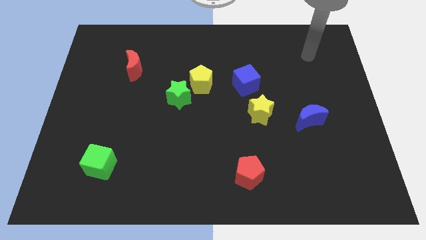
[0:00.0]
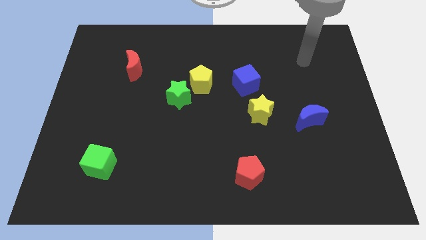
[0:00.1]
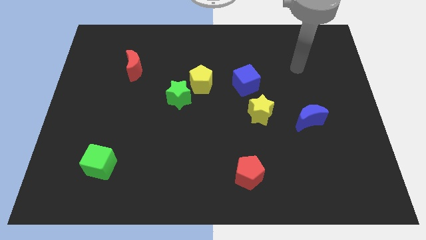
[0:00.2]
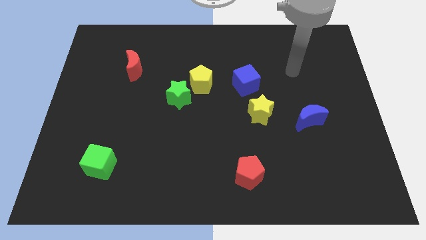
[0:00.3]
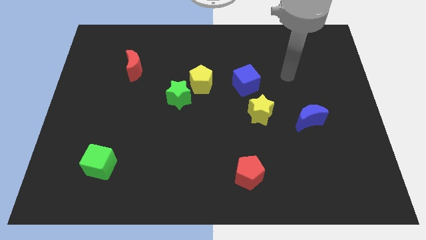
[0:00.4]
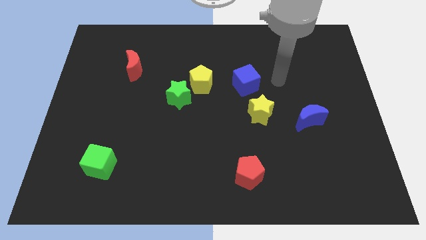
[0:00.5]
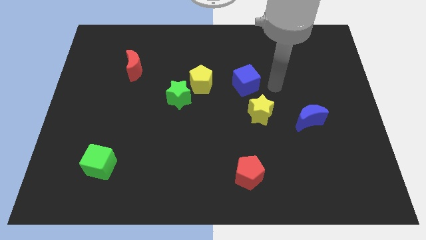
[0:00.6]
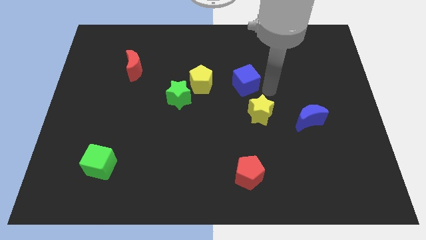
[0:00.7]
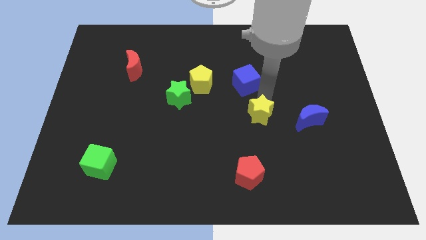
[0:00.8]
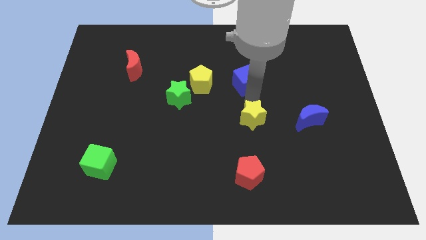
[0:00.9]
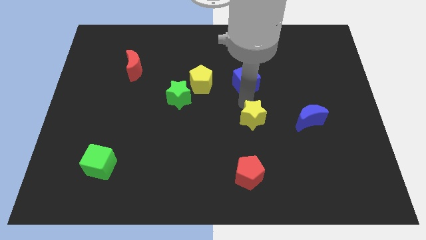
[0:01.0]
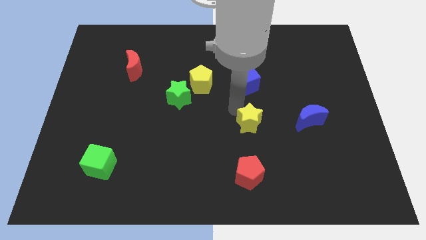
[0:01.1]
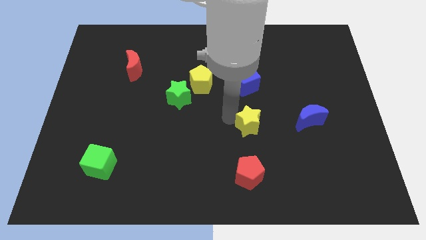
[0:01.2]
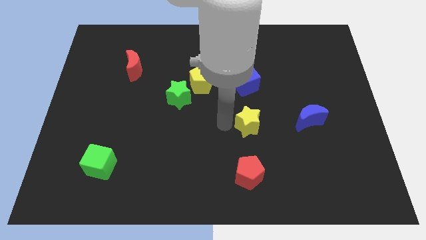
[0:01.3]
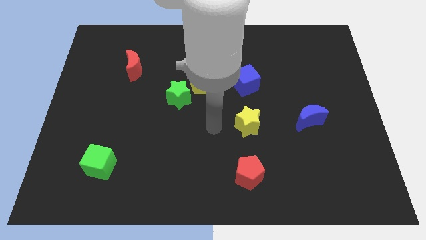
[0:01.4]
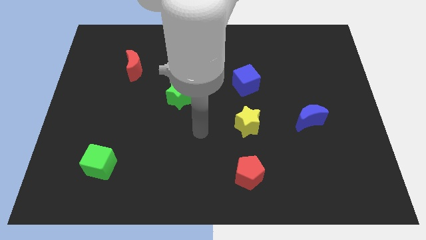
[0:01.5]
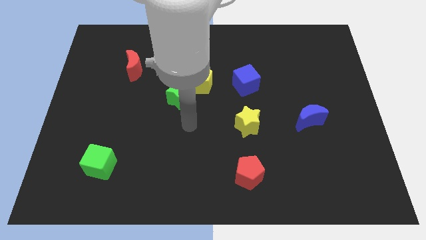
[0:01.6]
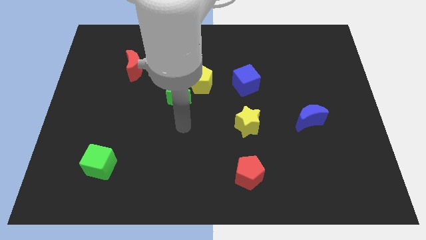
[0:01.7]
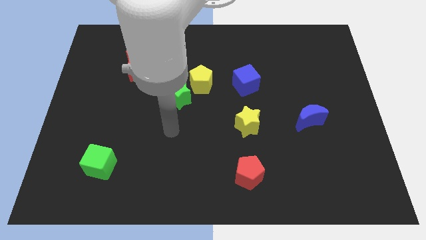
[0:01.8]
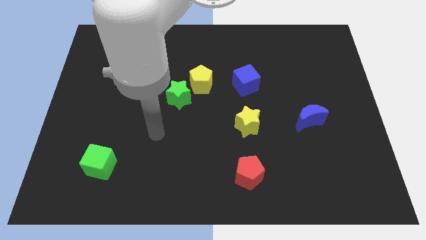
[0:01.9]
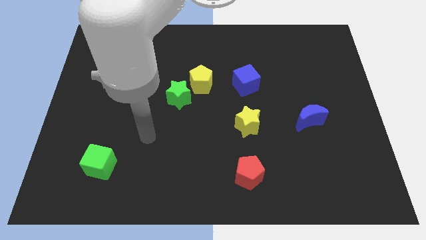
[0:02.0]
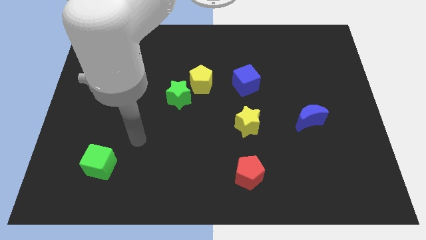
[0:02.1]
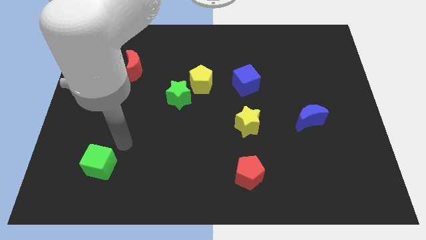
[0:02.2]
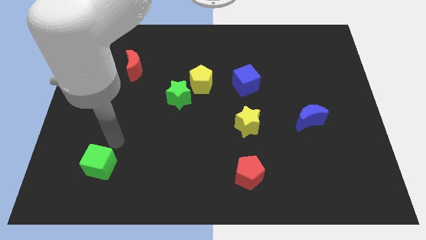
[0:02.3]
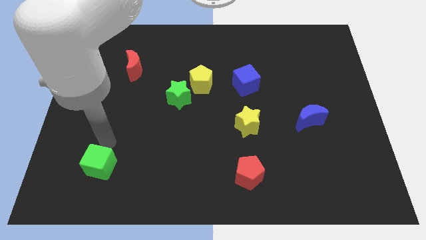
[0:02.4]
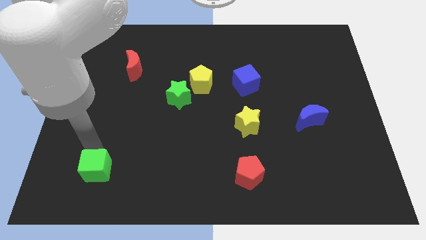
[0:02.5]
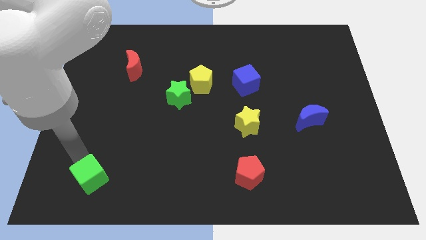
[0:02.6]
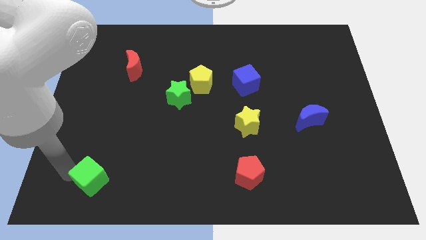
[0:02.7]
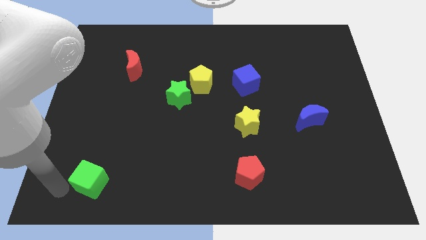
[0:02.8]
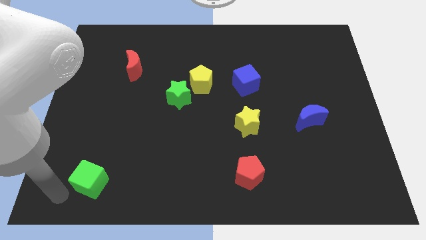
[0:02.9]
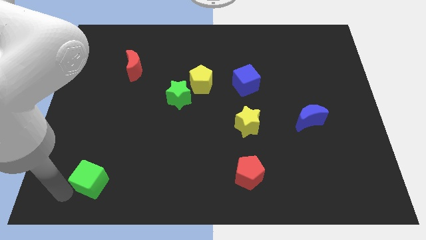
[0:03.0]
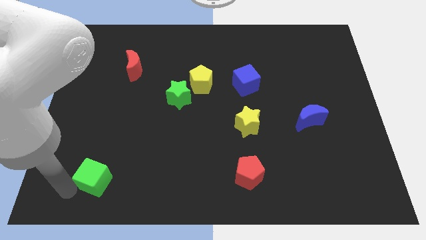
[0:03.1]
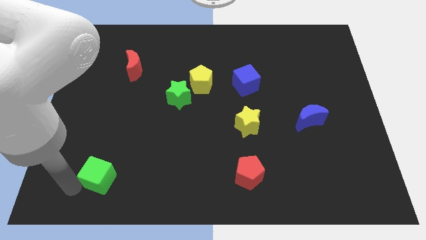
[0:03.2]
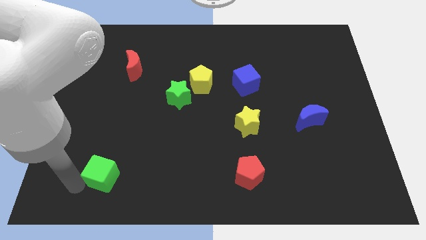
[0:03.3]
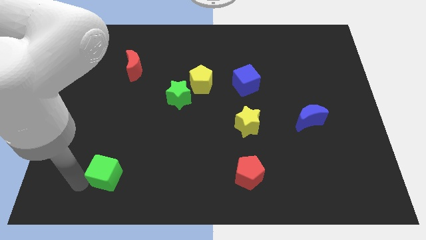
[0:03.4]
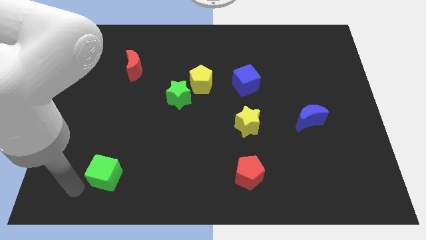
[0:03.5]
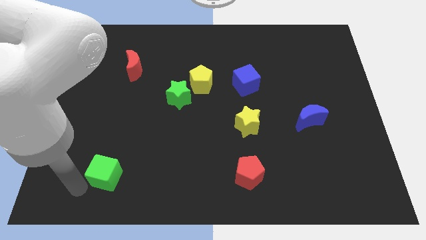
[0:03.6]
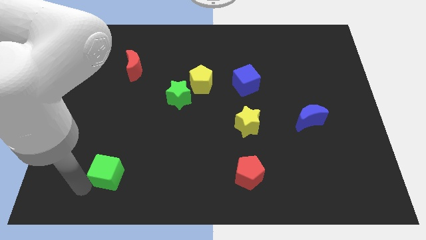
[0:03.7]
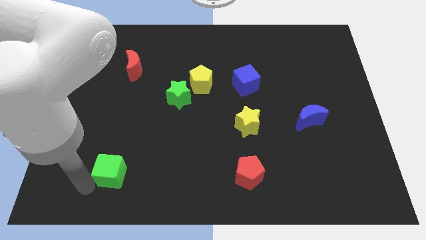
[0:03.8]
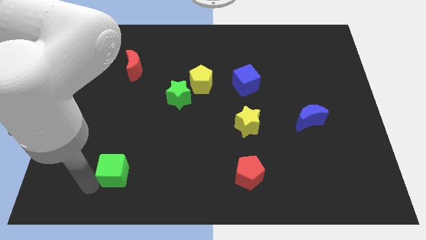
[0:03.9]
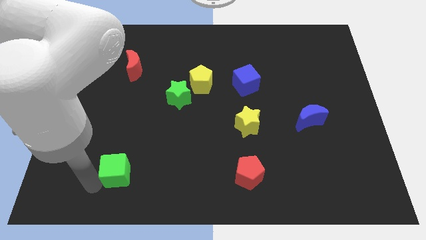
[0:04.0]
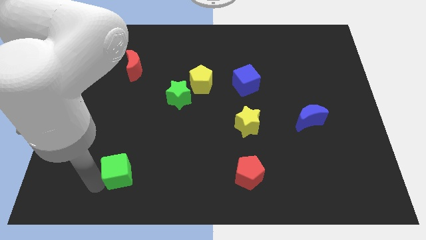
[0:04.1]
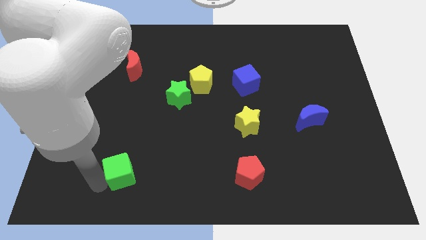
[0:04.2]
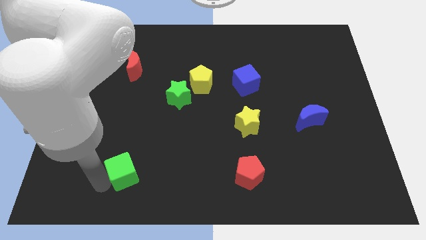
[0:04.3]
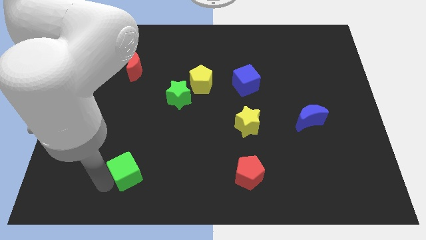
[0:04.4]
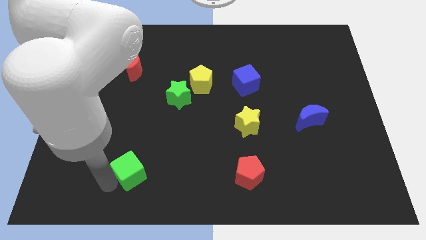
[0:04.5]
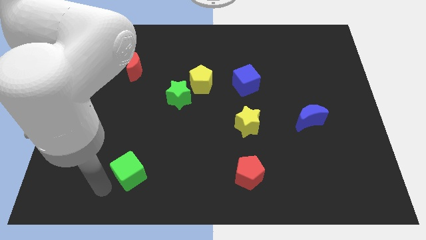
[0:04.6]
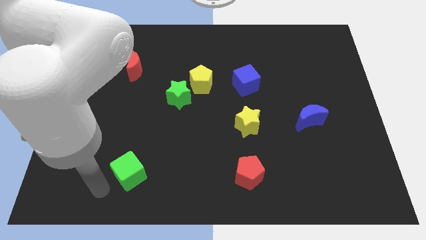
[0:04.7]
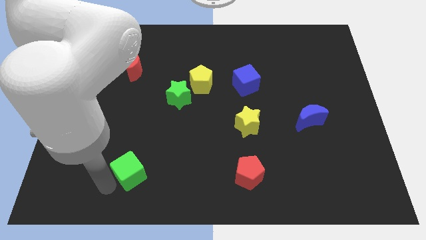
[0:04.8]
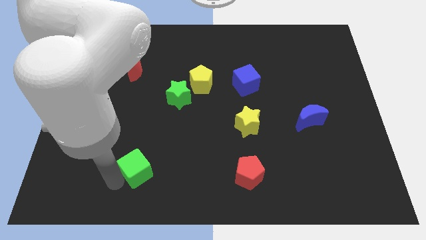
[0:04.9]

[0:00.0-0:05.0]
slide the green cube a bit right

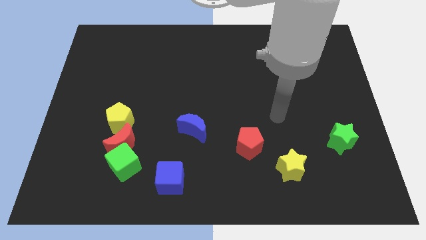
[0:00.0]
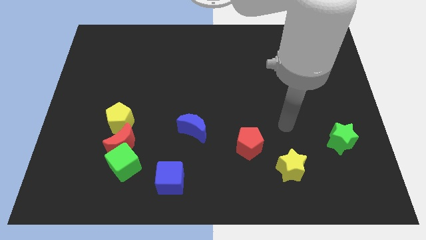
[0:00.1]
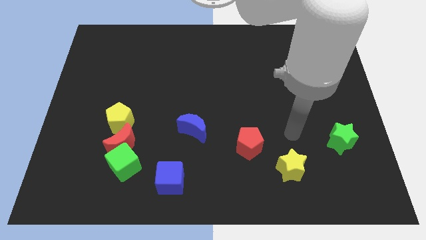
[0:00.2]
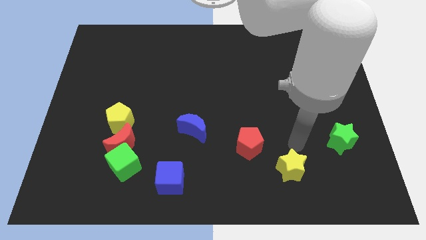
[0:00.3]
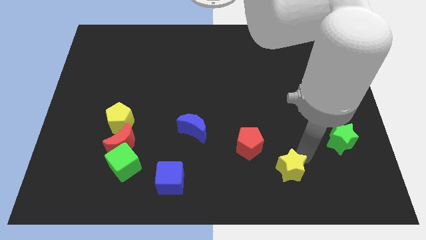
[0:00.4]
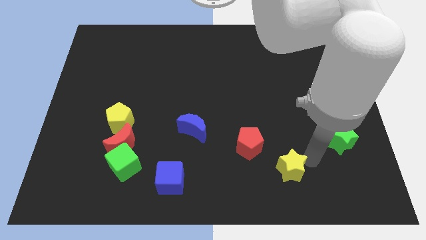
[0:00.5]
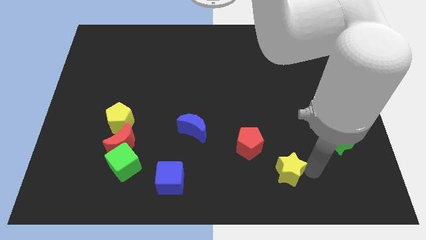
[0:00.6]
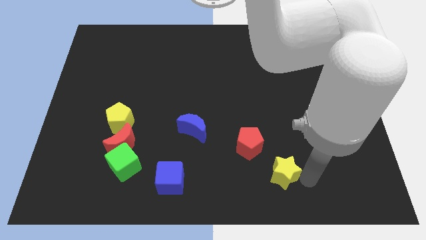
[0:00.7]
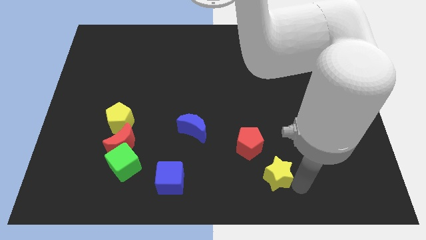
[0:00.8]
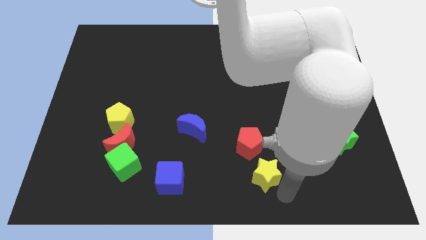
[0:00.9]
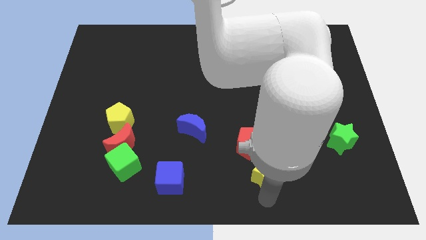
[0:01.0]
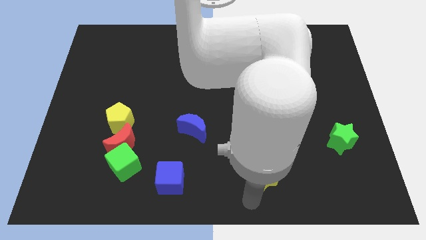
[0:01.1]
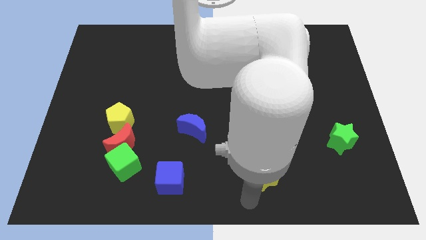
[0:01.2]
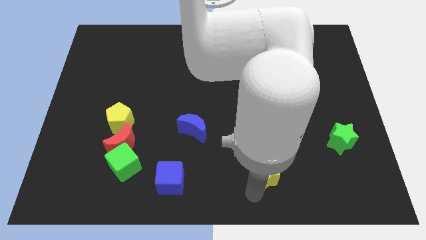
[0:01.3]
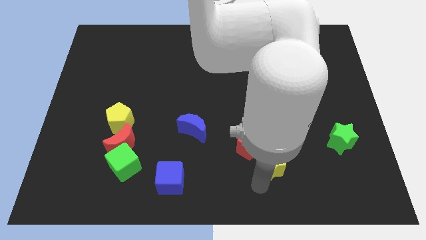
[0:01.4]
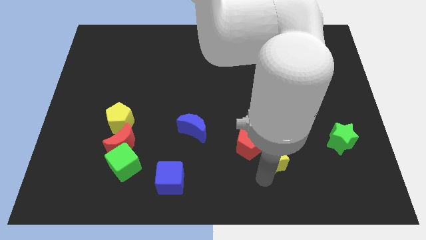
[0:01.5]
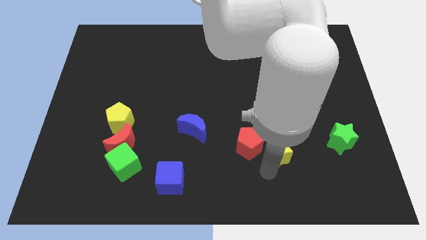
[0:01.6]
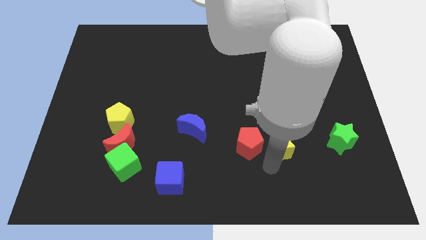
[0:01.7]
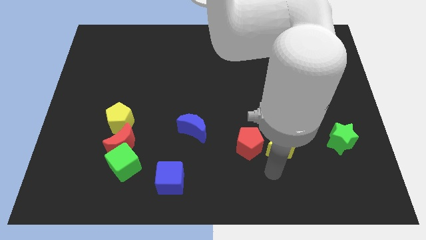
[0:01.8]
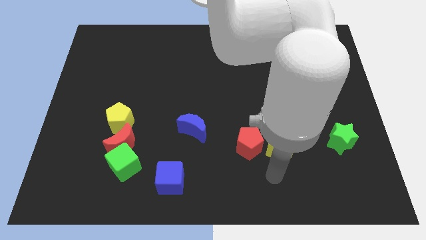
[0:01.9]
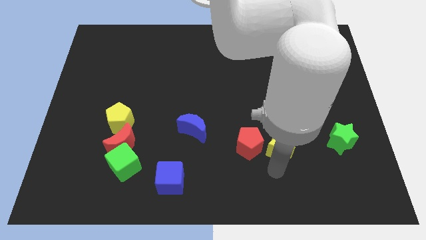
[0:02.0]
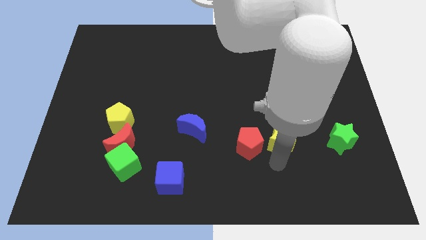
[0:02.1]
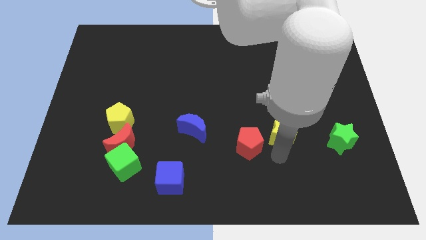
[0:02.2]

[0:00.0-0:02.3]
push the yellow star a bit up

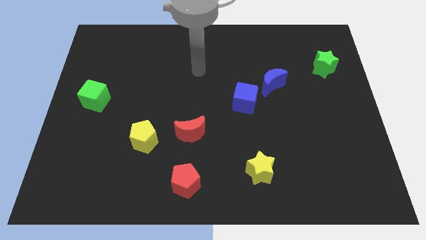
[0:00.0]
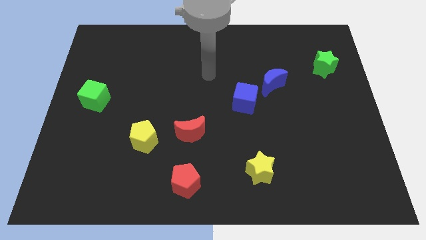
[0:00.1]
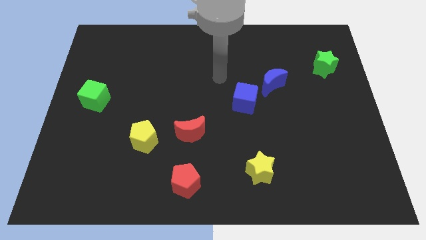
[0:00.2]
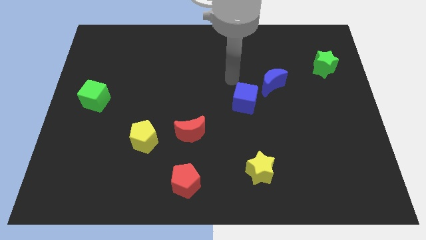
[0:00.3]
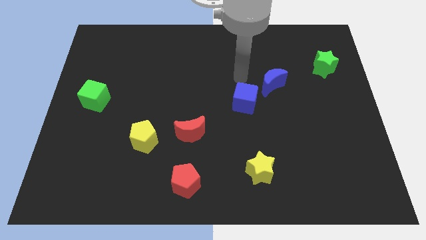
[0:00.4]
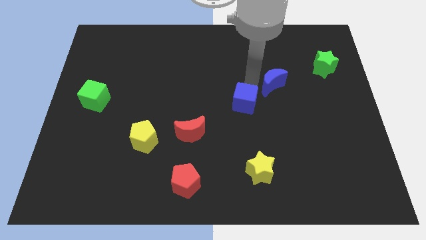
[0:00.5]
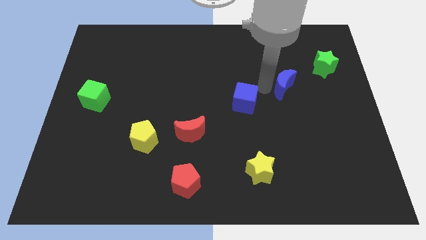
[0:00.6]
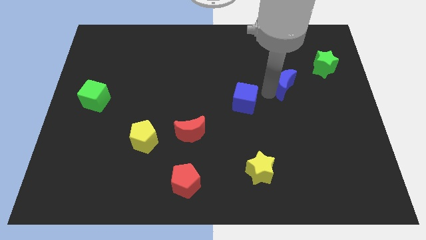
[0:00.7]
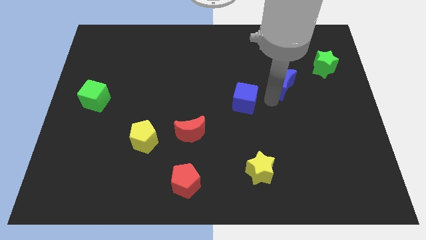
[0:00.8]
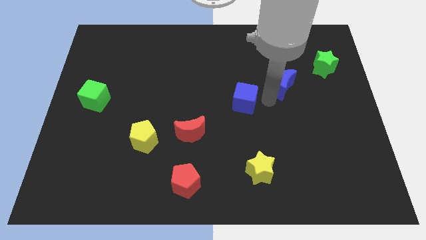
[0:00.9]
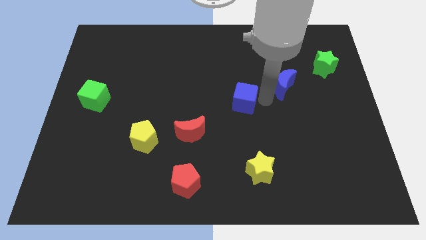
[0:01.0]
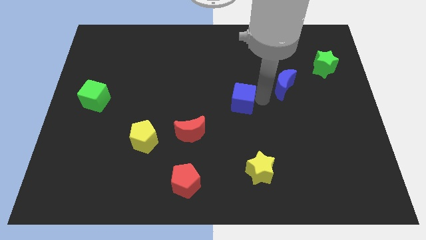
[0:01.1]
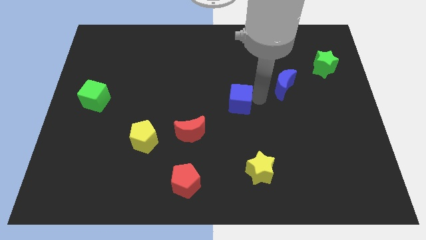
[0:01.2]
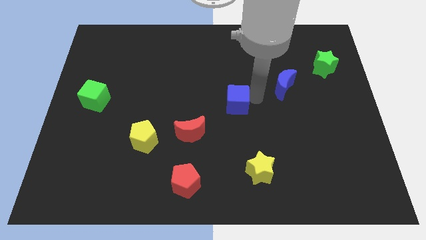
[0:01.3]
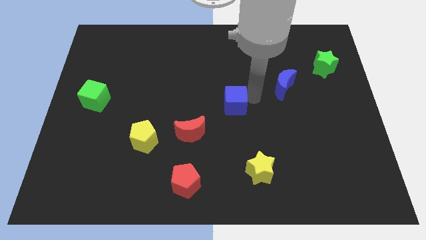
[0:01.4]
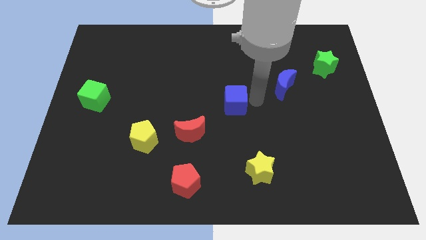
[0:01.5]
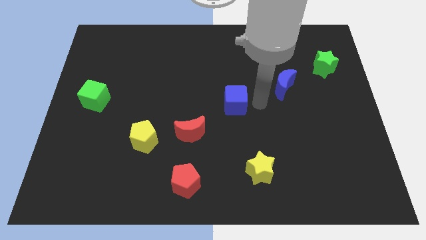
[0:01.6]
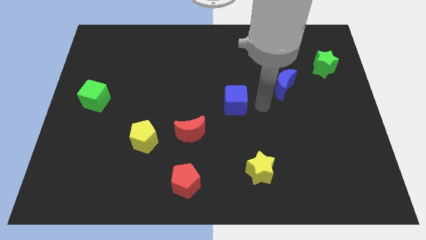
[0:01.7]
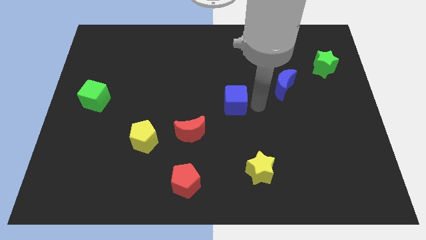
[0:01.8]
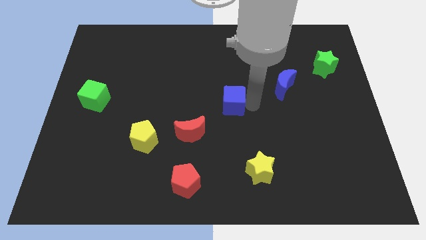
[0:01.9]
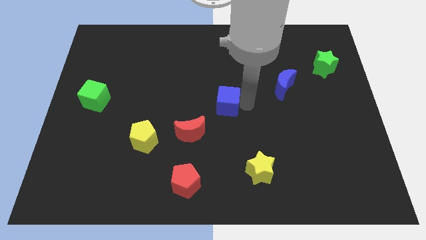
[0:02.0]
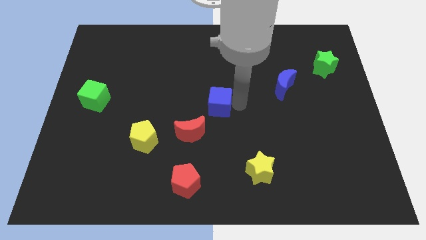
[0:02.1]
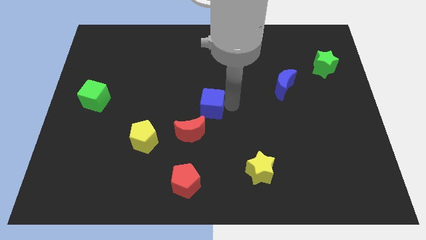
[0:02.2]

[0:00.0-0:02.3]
slightly move the blue cube to the left
